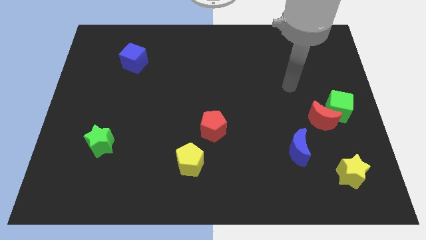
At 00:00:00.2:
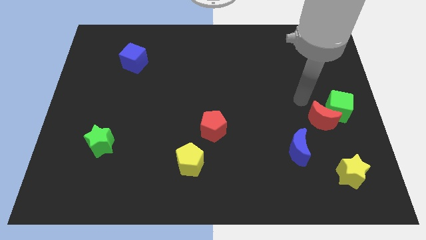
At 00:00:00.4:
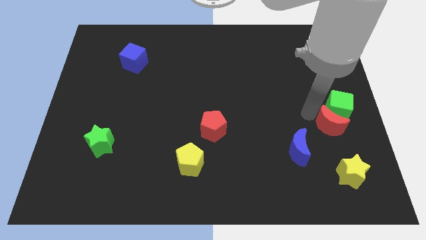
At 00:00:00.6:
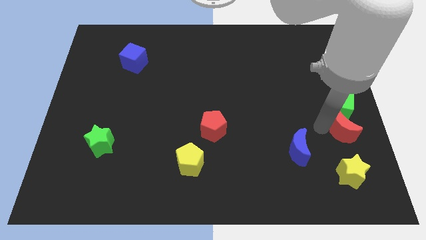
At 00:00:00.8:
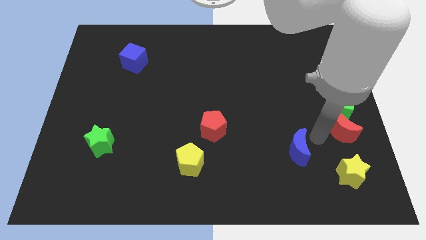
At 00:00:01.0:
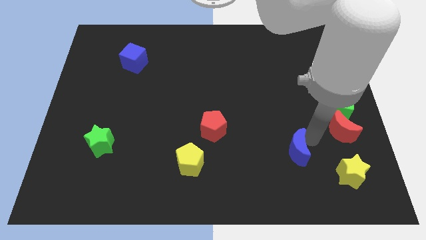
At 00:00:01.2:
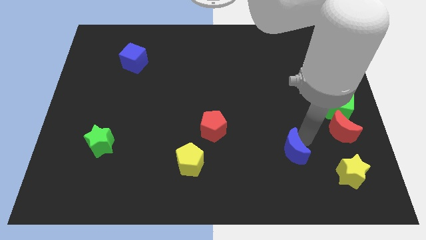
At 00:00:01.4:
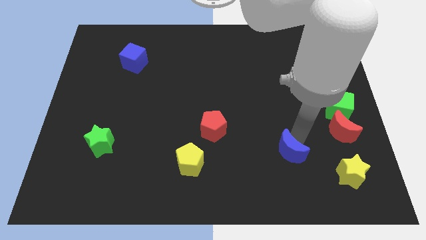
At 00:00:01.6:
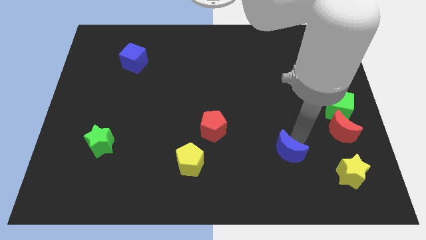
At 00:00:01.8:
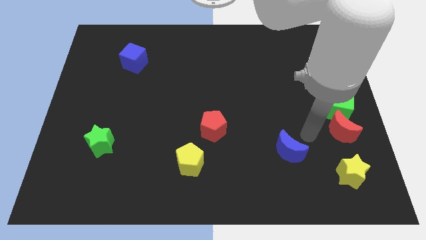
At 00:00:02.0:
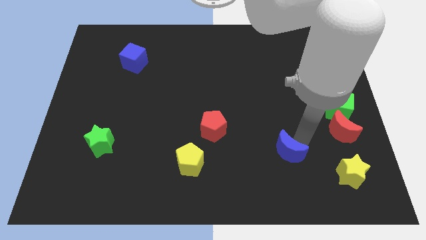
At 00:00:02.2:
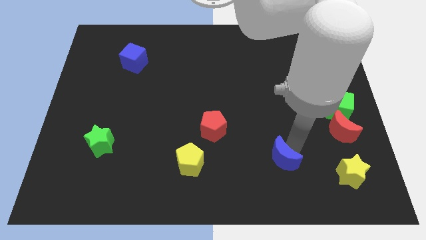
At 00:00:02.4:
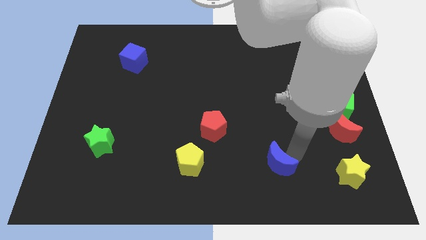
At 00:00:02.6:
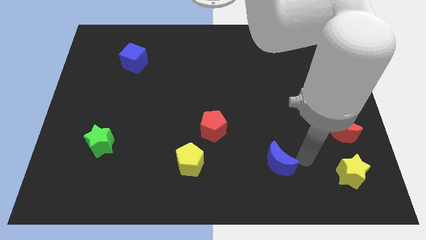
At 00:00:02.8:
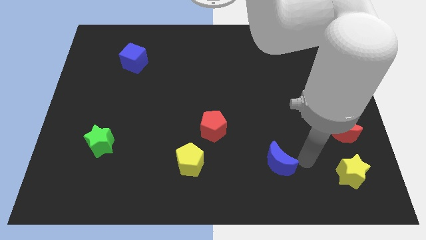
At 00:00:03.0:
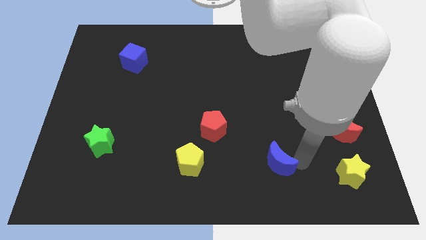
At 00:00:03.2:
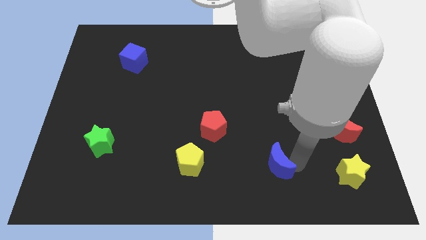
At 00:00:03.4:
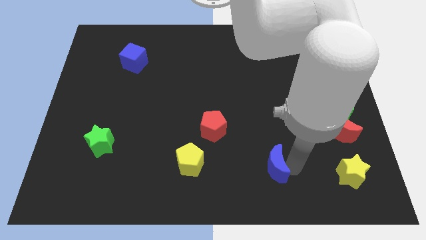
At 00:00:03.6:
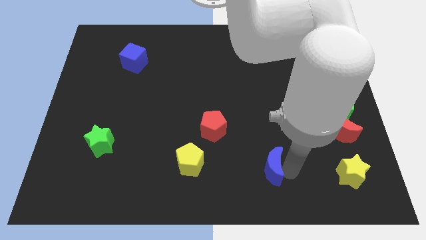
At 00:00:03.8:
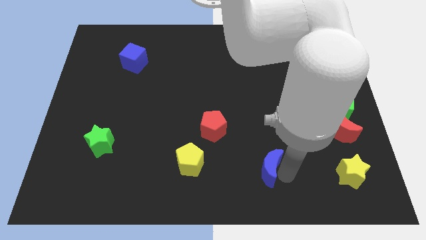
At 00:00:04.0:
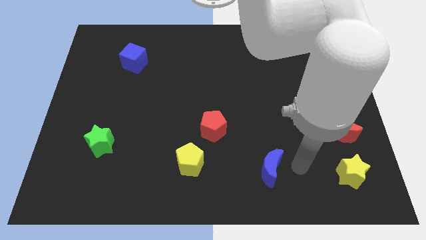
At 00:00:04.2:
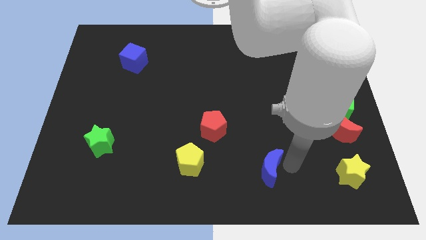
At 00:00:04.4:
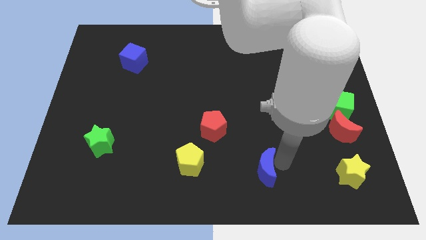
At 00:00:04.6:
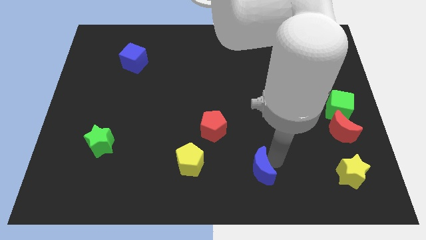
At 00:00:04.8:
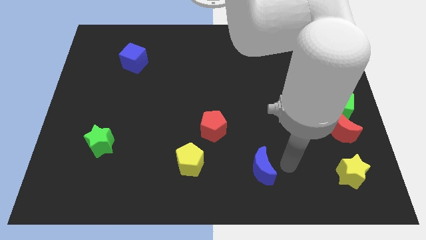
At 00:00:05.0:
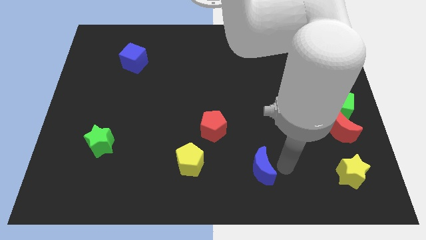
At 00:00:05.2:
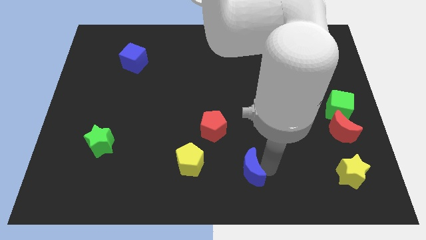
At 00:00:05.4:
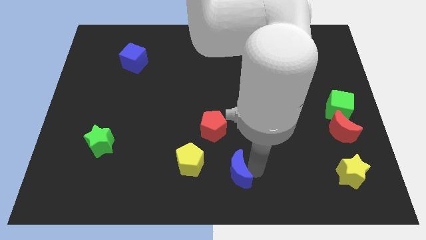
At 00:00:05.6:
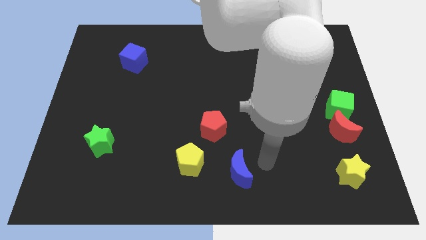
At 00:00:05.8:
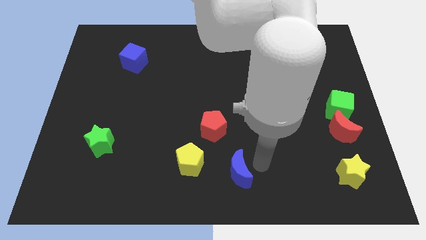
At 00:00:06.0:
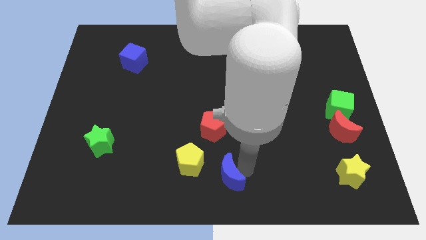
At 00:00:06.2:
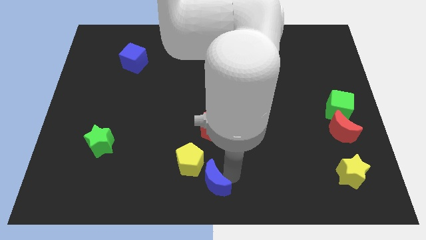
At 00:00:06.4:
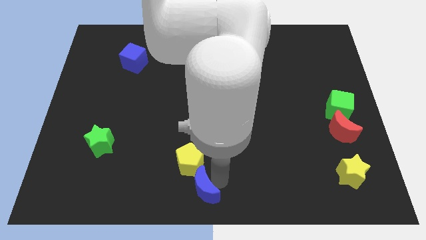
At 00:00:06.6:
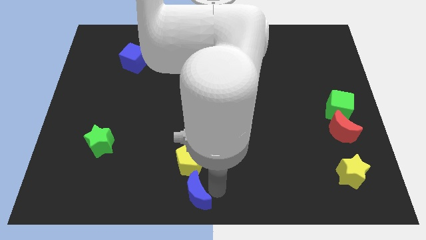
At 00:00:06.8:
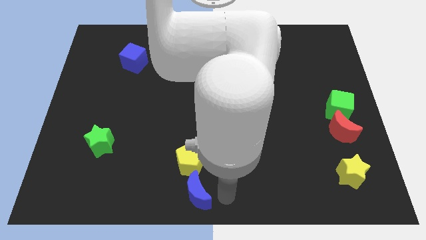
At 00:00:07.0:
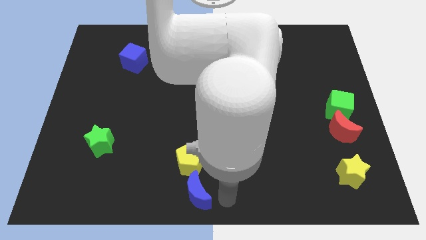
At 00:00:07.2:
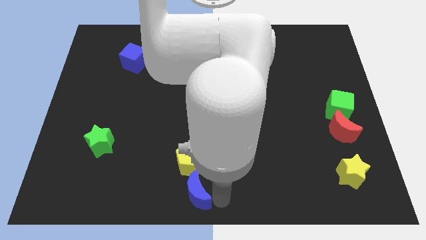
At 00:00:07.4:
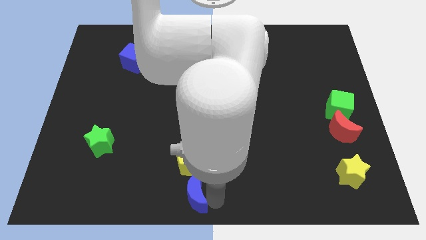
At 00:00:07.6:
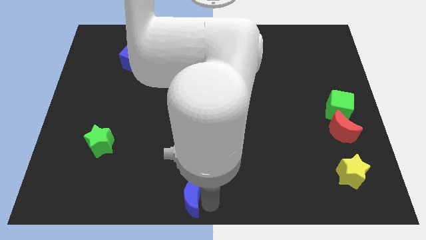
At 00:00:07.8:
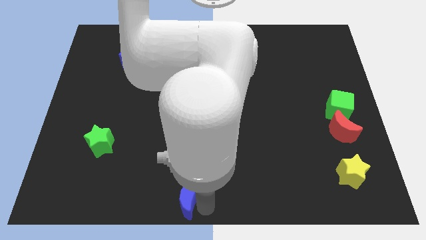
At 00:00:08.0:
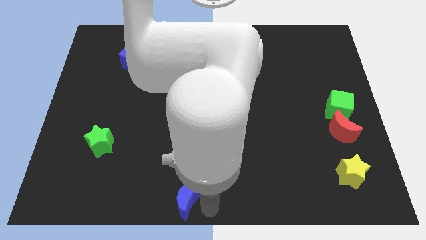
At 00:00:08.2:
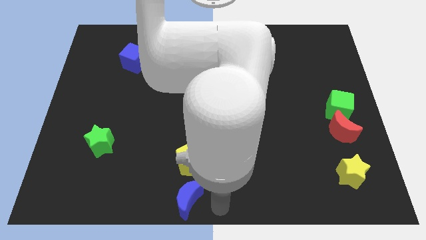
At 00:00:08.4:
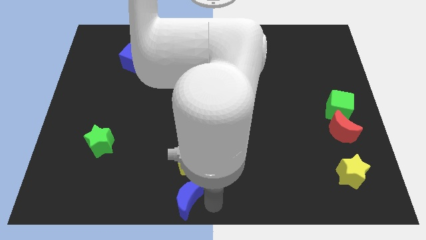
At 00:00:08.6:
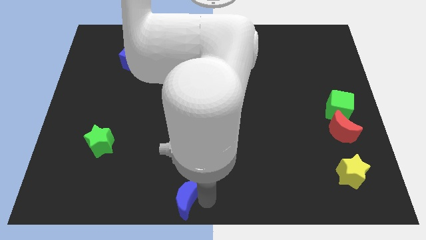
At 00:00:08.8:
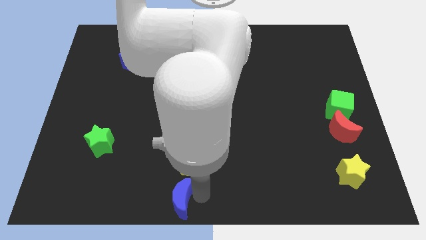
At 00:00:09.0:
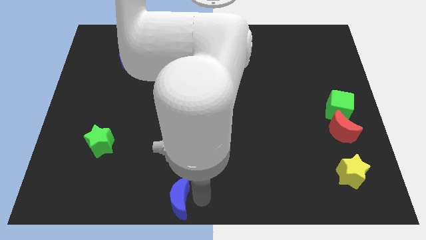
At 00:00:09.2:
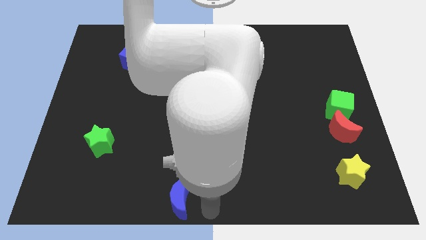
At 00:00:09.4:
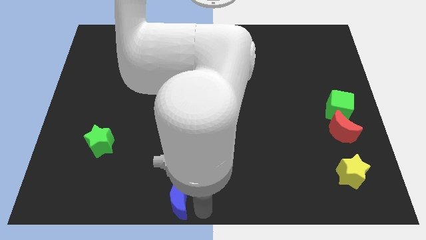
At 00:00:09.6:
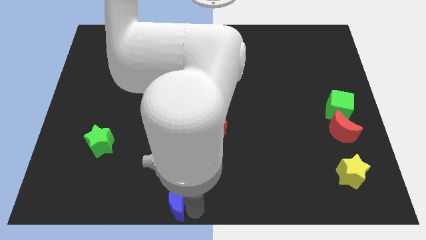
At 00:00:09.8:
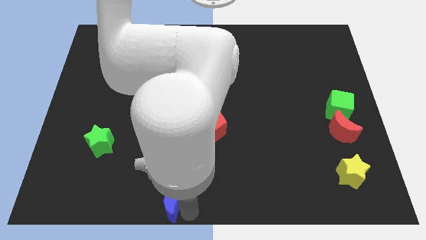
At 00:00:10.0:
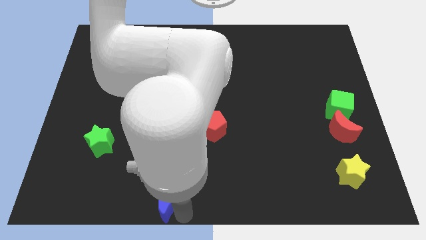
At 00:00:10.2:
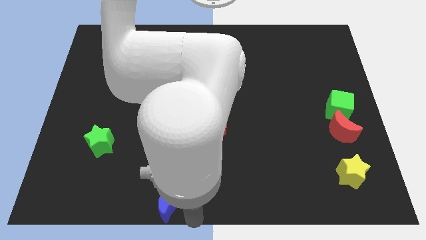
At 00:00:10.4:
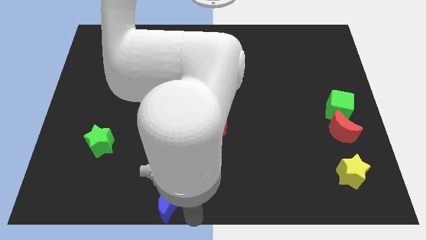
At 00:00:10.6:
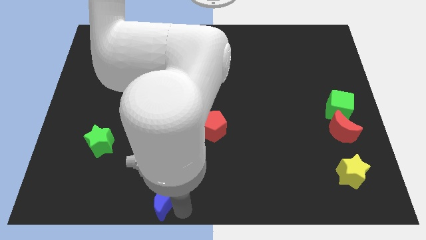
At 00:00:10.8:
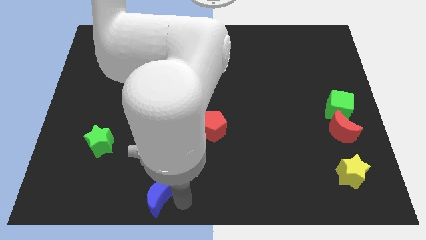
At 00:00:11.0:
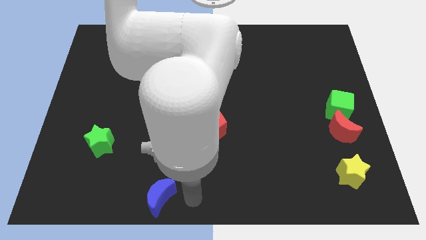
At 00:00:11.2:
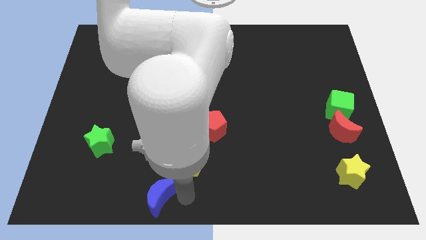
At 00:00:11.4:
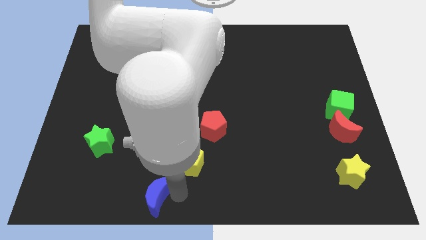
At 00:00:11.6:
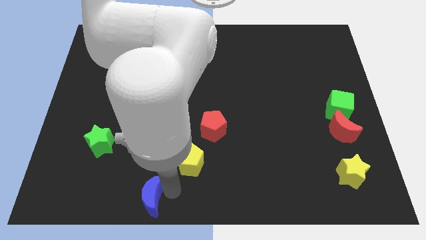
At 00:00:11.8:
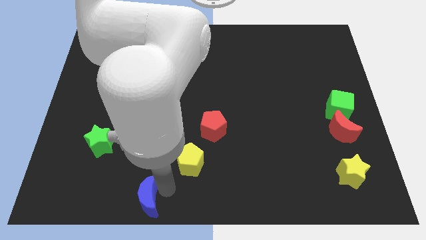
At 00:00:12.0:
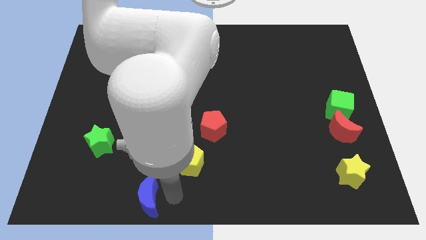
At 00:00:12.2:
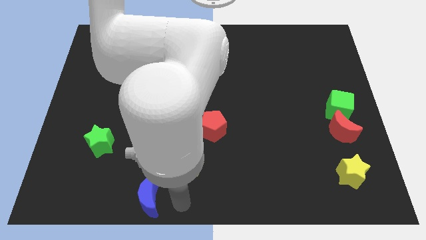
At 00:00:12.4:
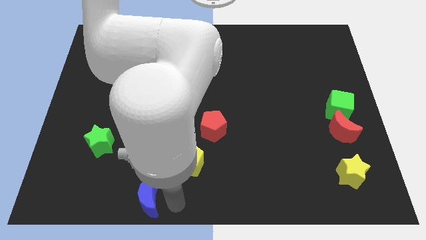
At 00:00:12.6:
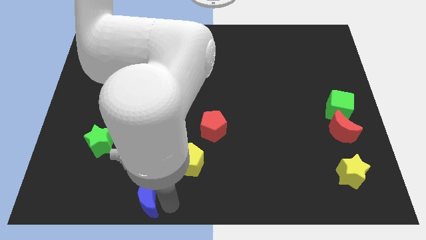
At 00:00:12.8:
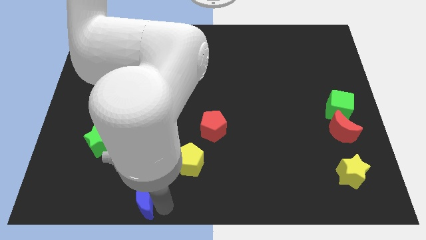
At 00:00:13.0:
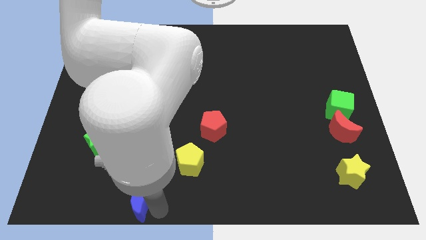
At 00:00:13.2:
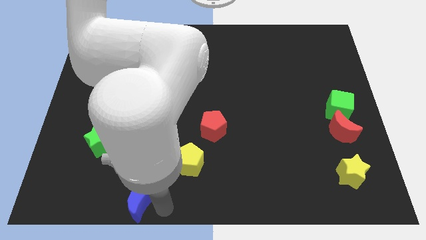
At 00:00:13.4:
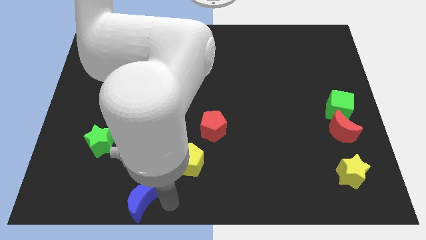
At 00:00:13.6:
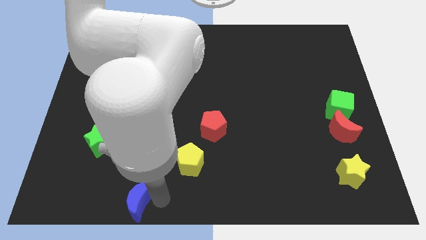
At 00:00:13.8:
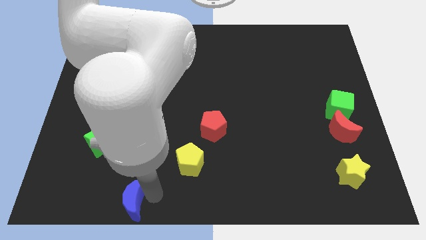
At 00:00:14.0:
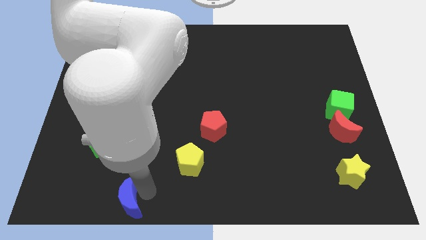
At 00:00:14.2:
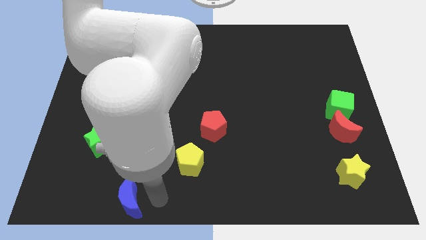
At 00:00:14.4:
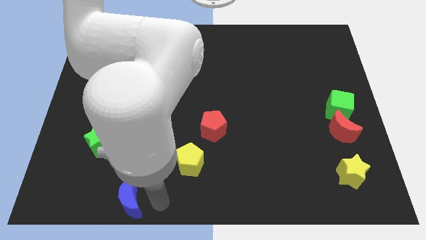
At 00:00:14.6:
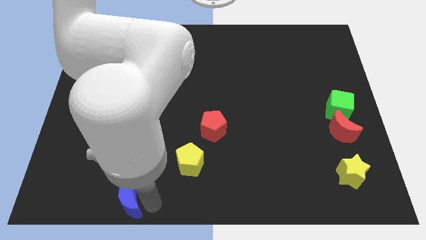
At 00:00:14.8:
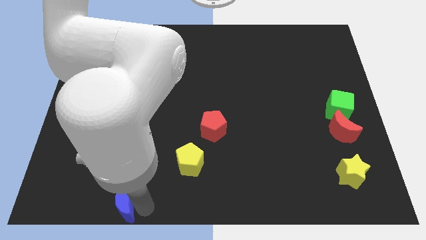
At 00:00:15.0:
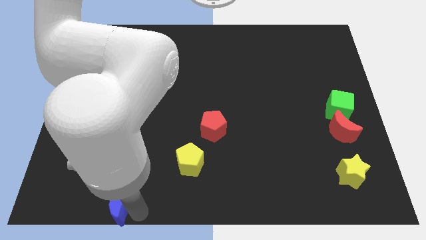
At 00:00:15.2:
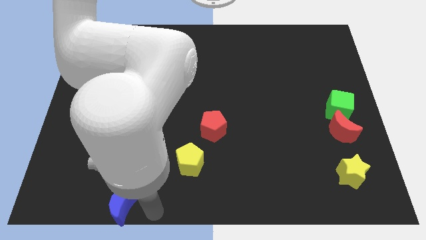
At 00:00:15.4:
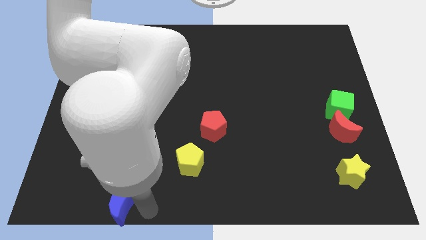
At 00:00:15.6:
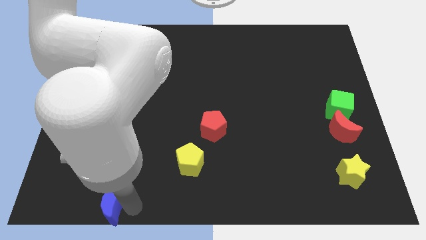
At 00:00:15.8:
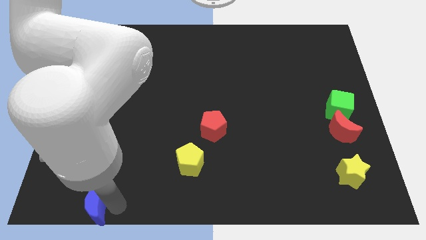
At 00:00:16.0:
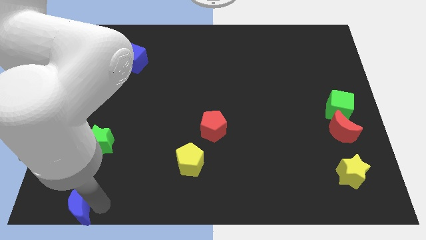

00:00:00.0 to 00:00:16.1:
move the blue moon to the lower left corner
